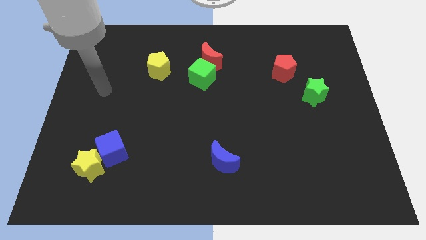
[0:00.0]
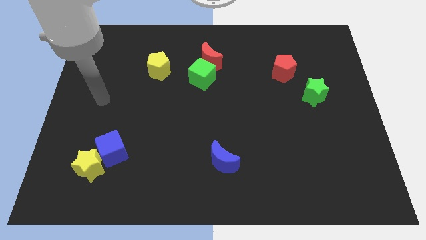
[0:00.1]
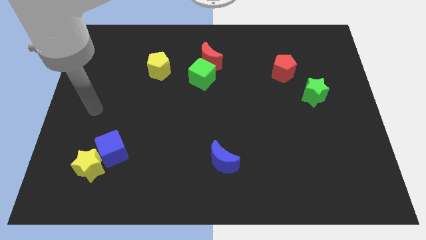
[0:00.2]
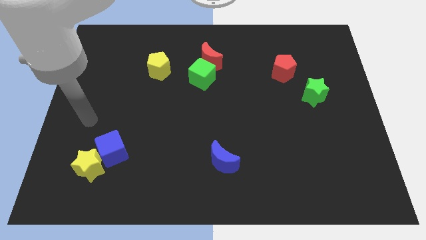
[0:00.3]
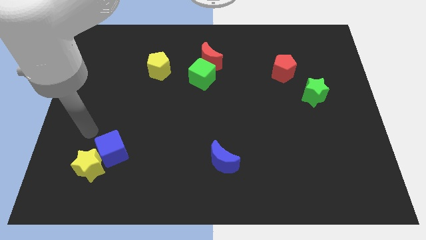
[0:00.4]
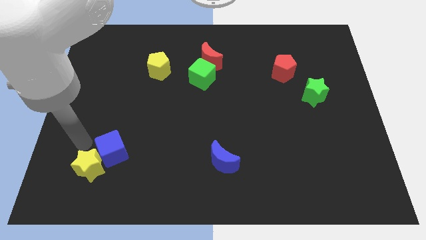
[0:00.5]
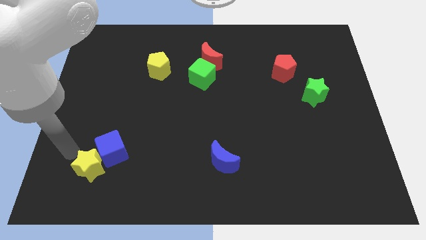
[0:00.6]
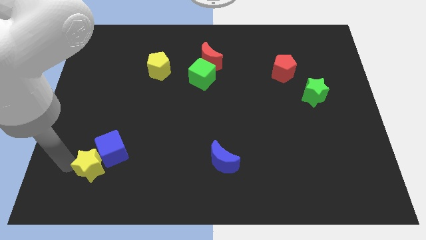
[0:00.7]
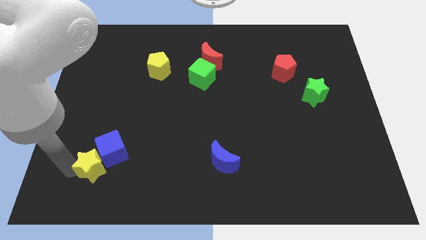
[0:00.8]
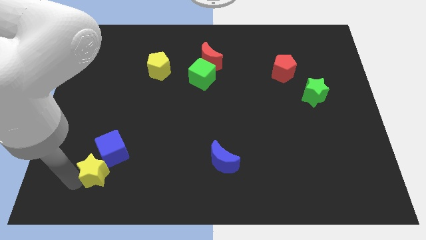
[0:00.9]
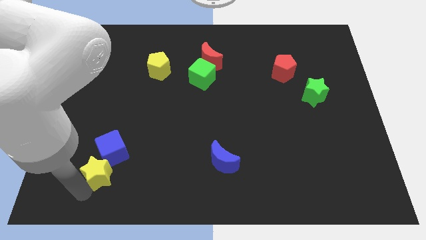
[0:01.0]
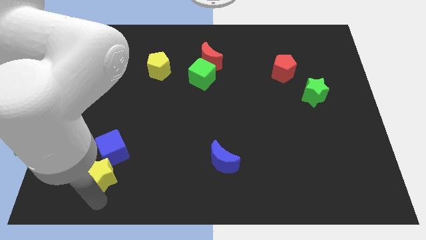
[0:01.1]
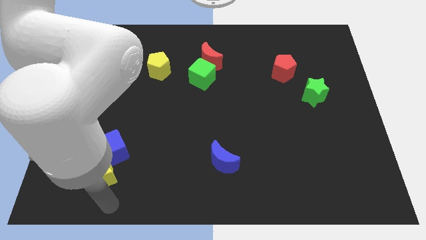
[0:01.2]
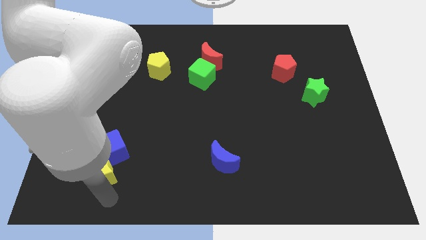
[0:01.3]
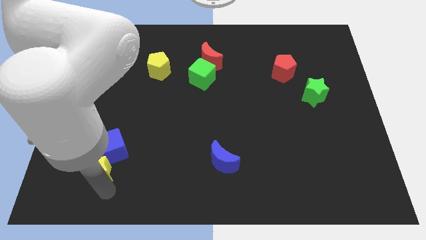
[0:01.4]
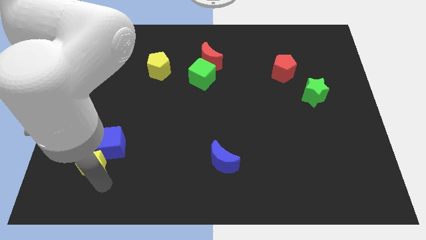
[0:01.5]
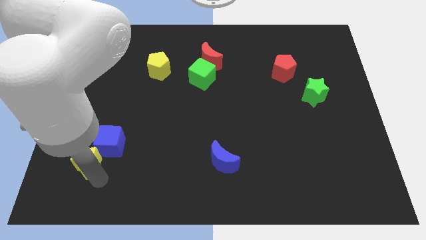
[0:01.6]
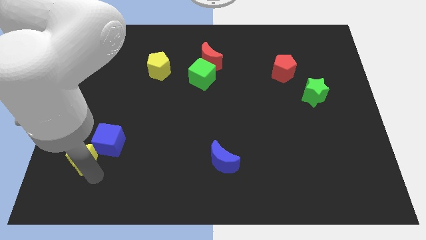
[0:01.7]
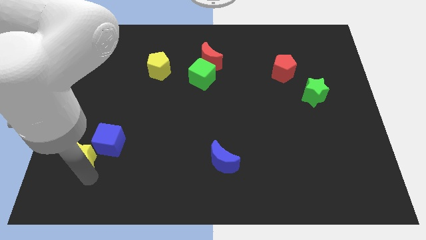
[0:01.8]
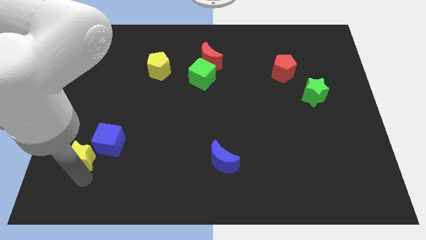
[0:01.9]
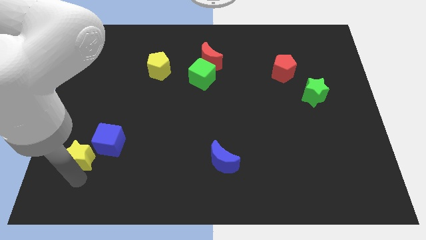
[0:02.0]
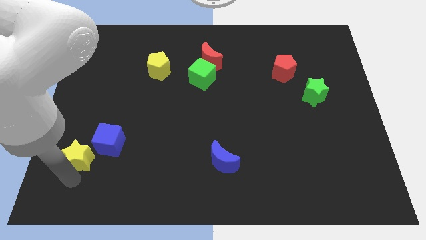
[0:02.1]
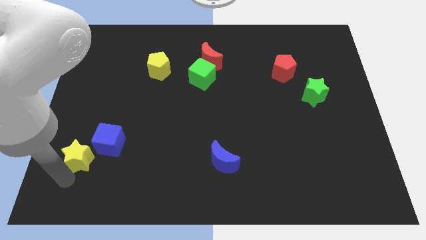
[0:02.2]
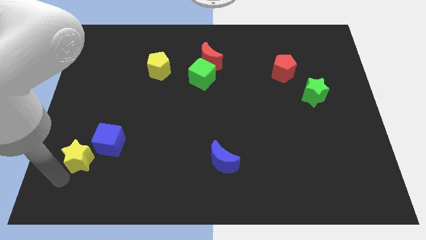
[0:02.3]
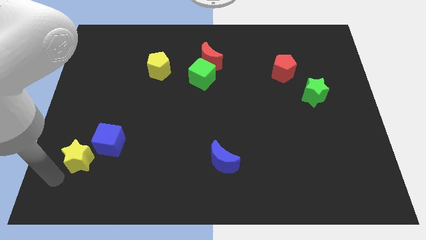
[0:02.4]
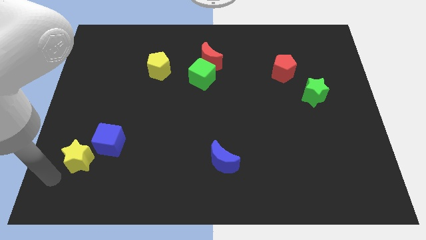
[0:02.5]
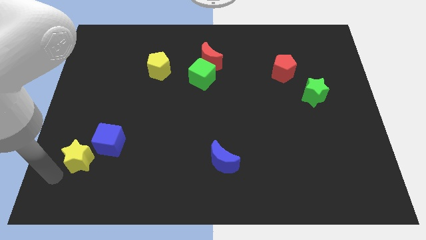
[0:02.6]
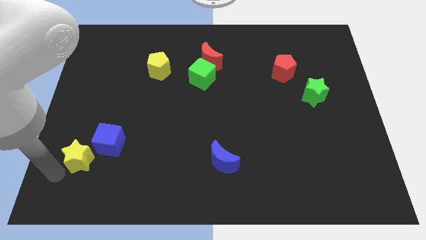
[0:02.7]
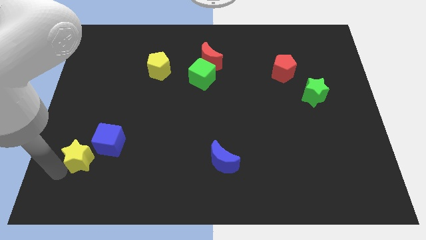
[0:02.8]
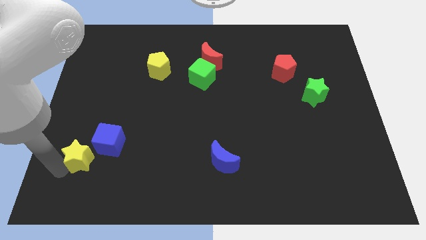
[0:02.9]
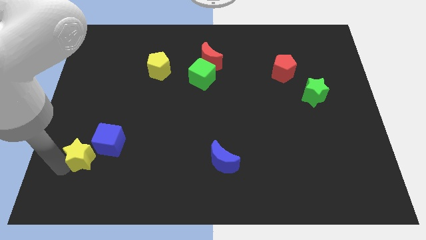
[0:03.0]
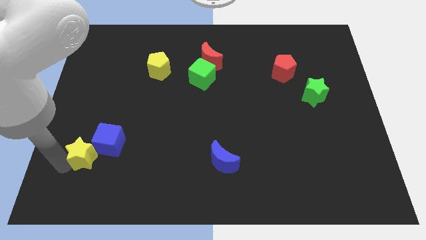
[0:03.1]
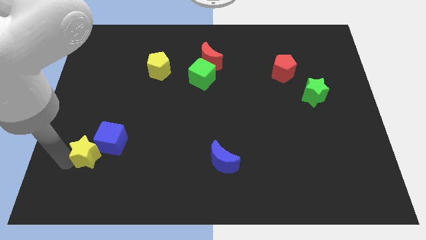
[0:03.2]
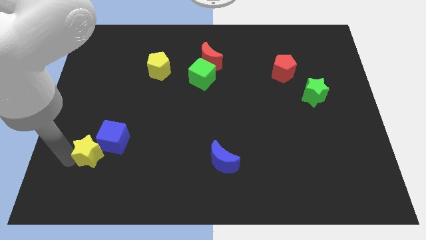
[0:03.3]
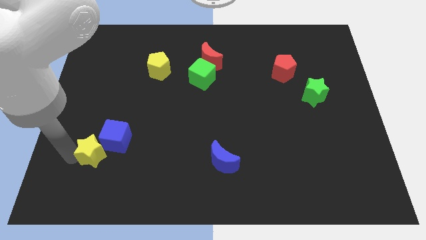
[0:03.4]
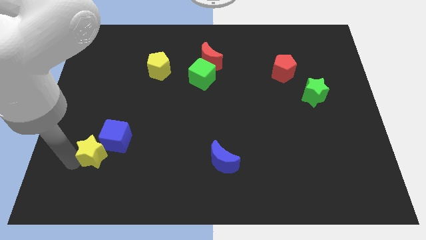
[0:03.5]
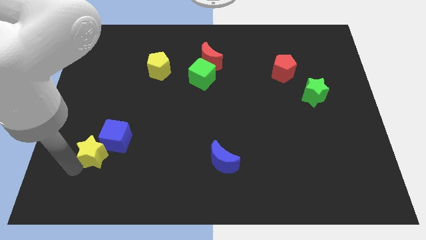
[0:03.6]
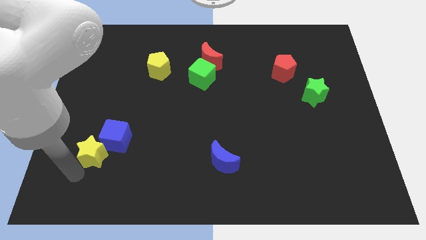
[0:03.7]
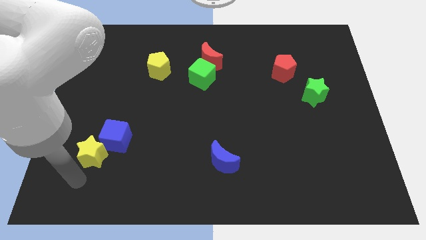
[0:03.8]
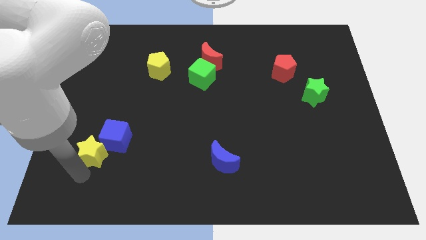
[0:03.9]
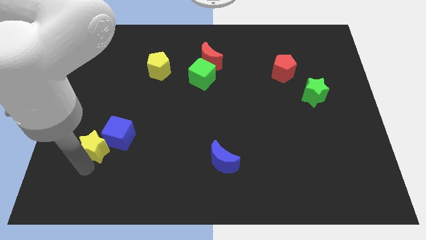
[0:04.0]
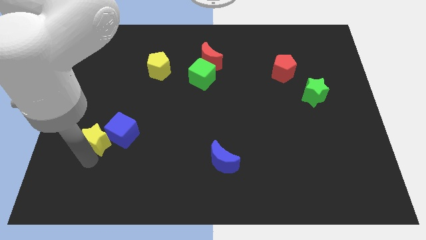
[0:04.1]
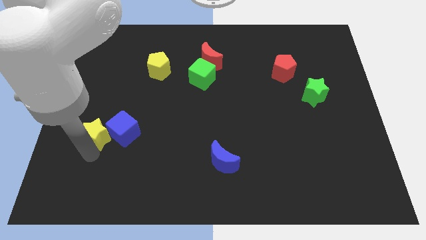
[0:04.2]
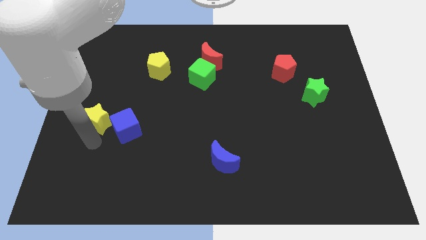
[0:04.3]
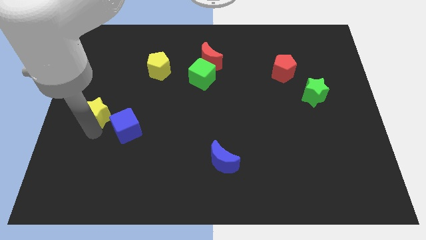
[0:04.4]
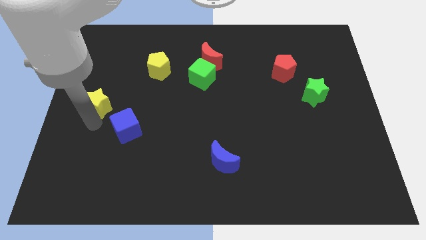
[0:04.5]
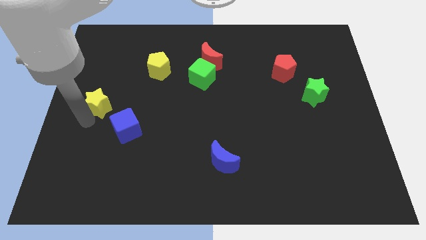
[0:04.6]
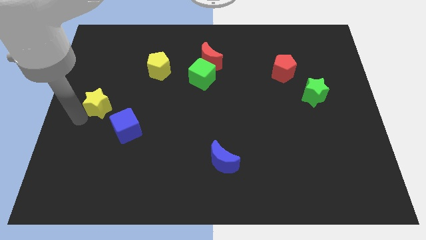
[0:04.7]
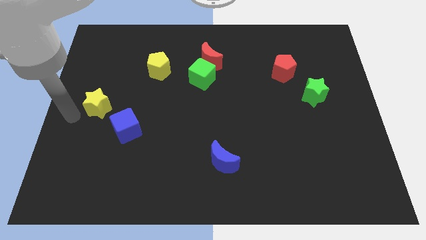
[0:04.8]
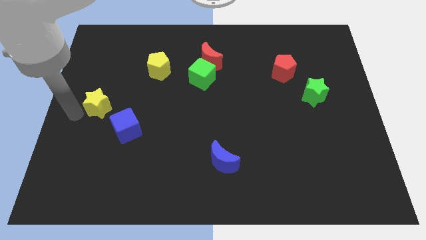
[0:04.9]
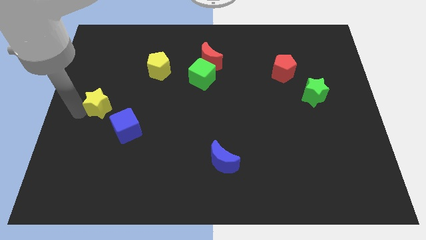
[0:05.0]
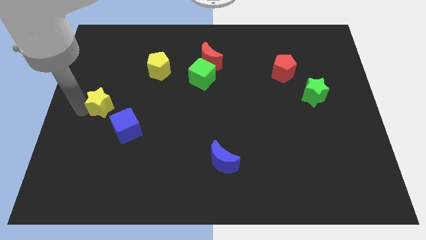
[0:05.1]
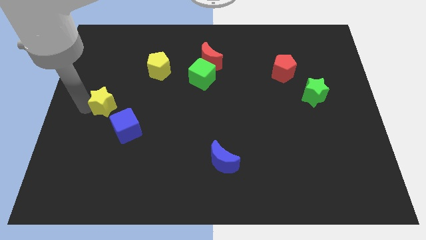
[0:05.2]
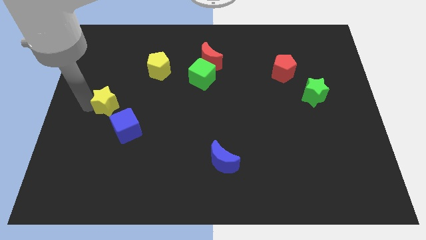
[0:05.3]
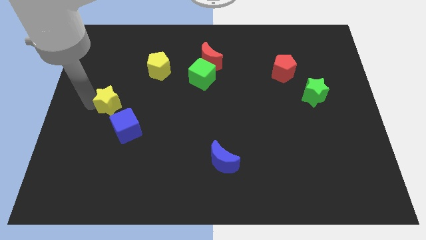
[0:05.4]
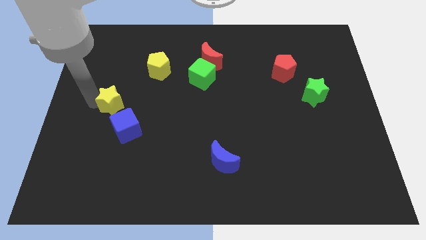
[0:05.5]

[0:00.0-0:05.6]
put the yellow star to the top side of the blue cube

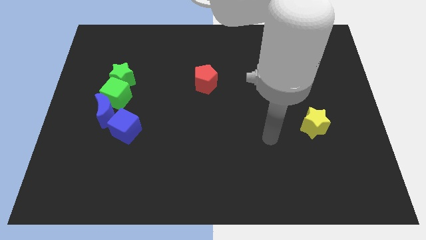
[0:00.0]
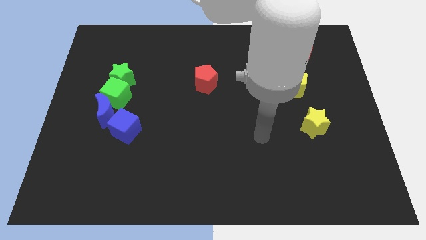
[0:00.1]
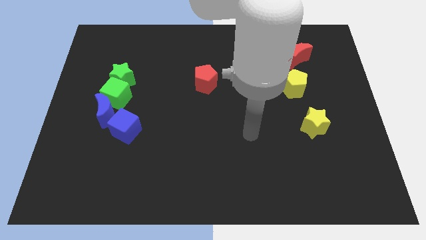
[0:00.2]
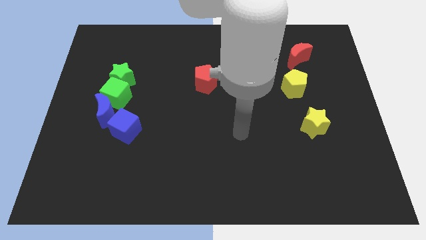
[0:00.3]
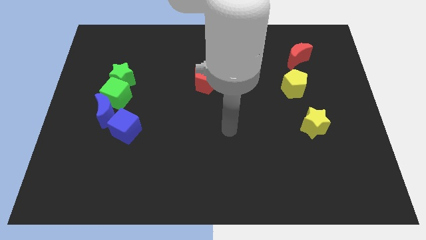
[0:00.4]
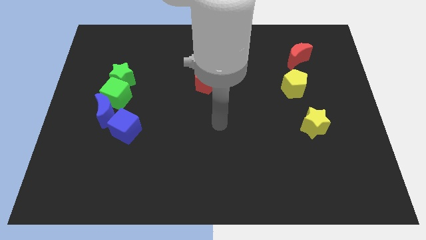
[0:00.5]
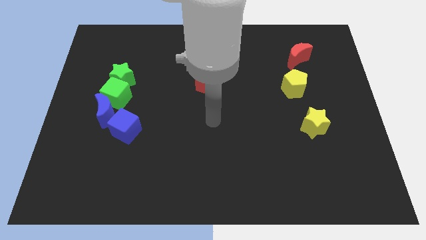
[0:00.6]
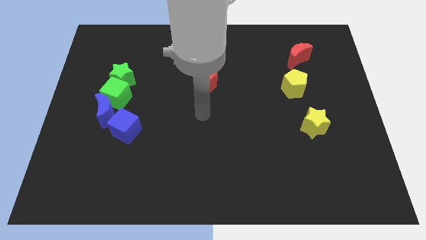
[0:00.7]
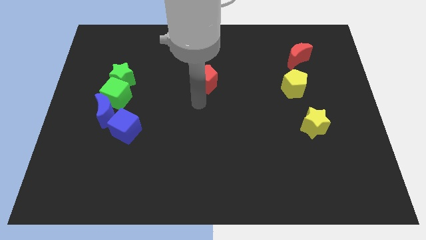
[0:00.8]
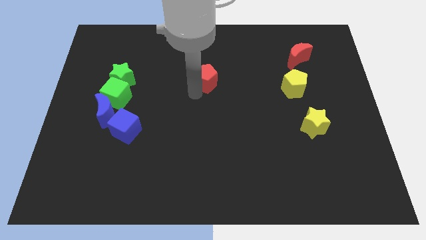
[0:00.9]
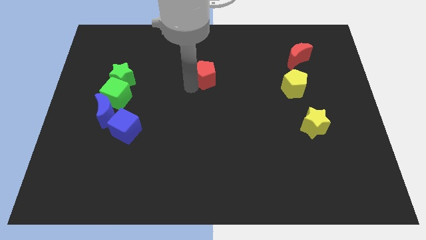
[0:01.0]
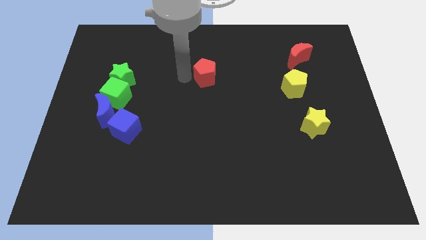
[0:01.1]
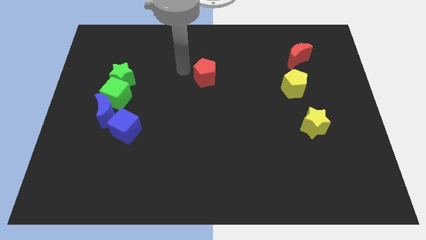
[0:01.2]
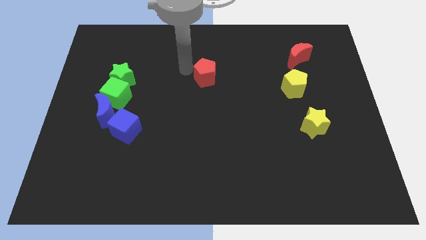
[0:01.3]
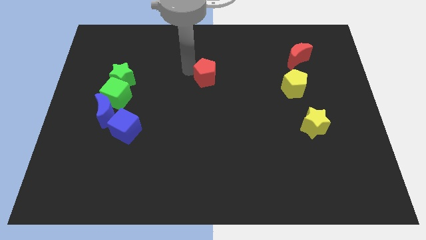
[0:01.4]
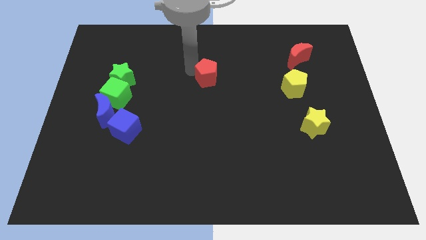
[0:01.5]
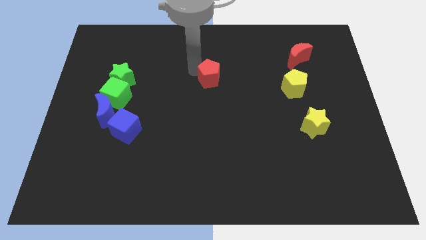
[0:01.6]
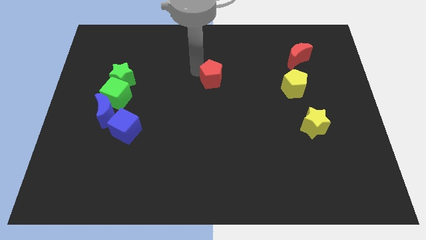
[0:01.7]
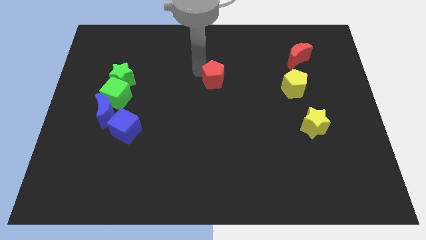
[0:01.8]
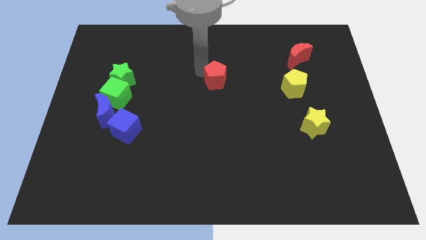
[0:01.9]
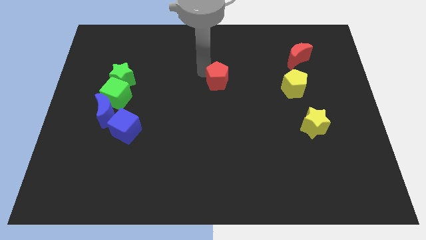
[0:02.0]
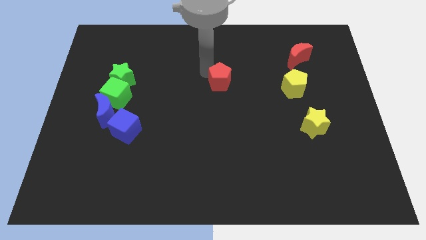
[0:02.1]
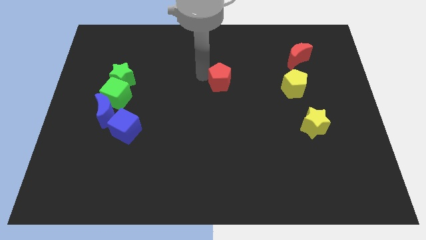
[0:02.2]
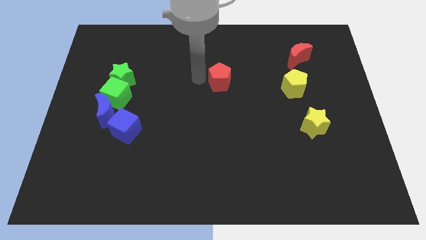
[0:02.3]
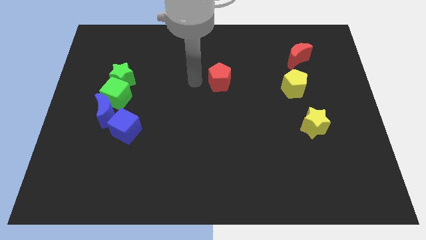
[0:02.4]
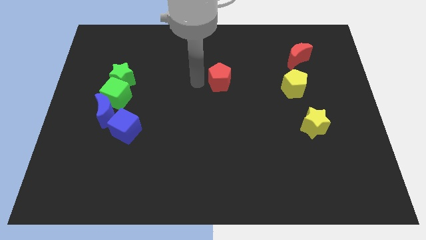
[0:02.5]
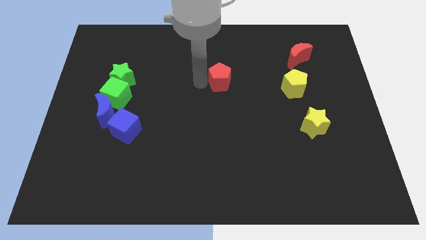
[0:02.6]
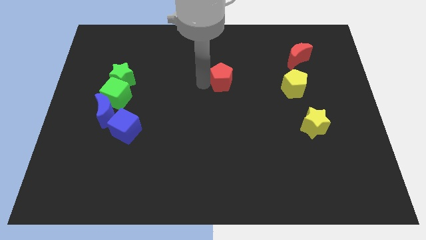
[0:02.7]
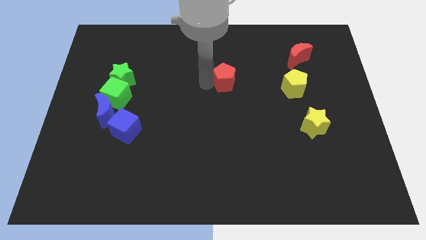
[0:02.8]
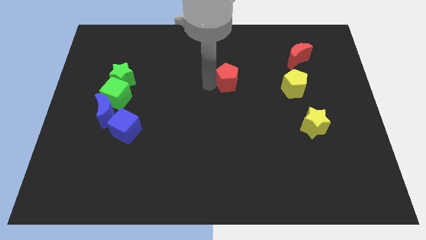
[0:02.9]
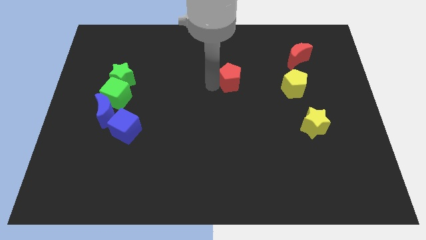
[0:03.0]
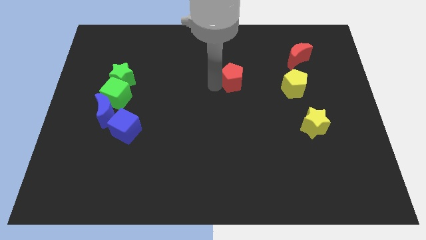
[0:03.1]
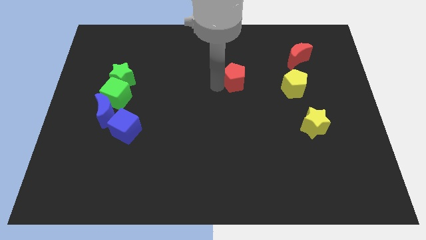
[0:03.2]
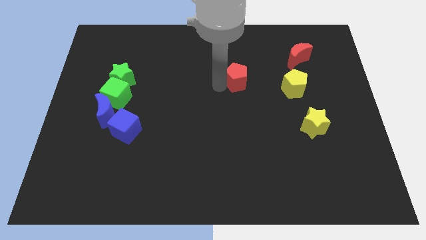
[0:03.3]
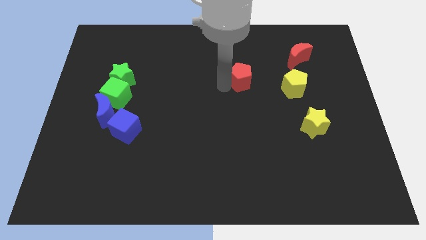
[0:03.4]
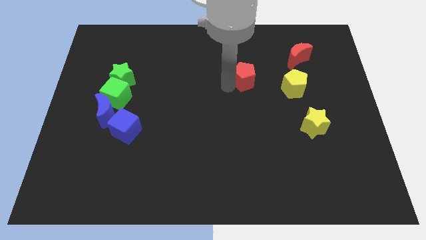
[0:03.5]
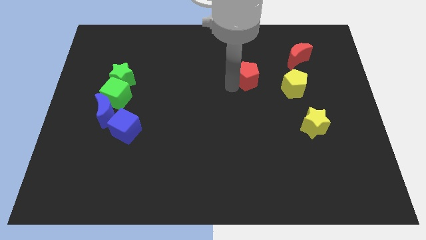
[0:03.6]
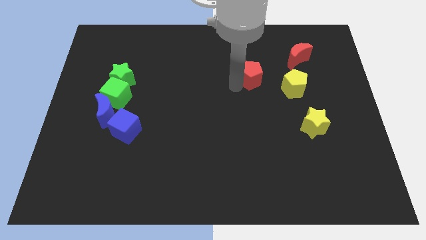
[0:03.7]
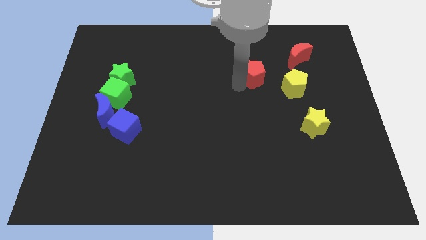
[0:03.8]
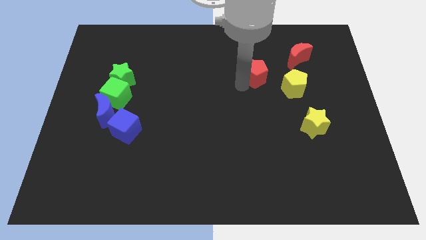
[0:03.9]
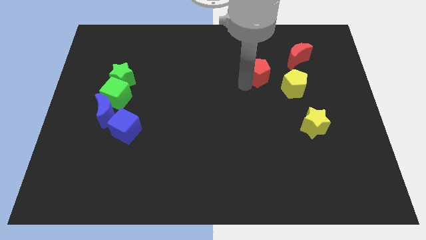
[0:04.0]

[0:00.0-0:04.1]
slide the red pentagon diagonally down and to the left of the red moon
